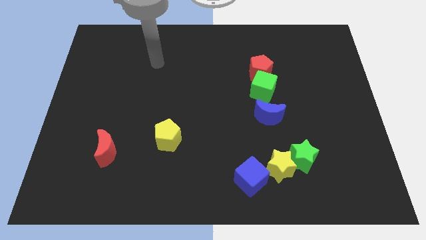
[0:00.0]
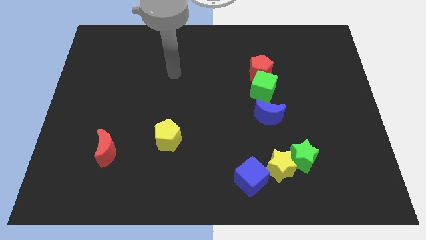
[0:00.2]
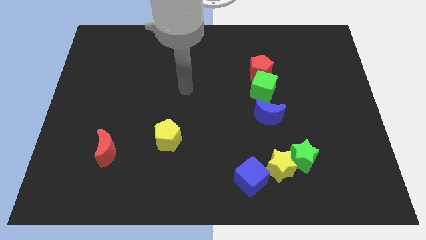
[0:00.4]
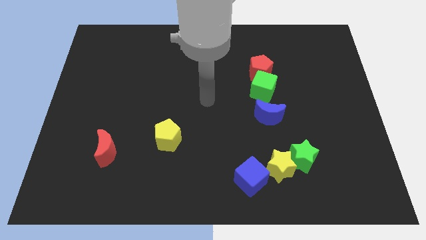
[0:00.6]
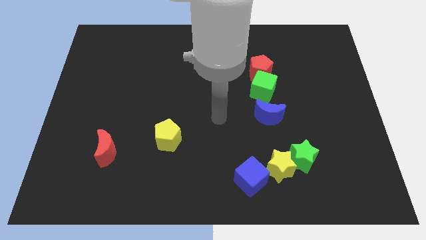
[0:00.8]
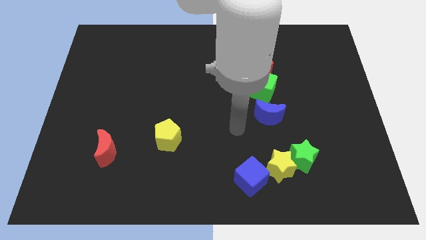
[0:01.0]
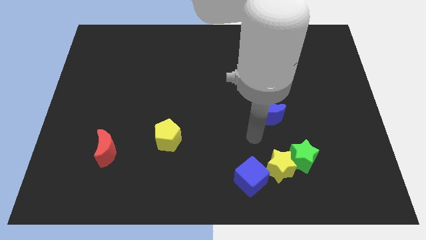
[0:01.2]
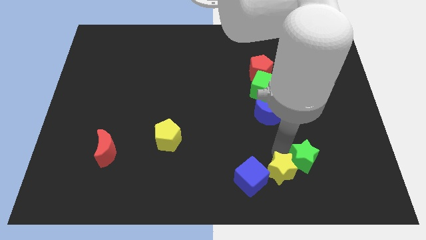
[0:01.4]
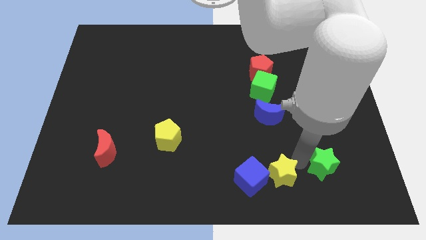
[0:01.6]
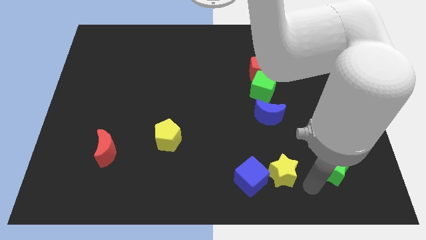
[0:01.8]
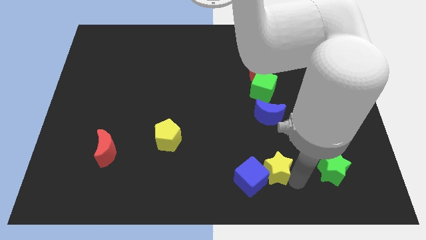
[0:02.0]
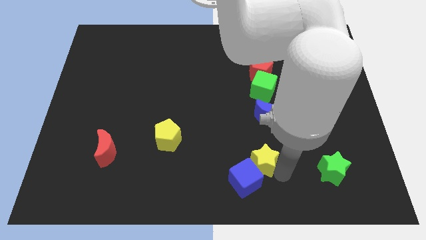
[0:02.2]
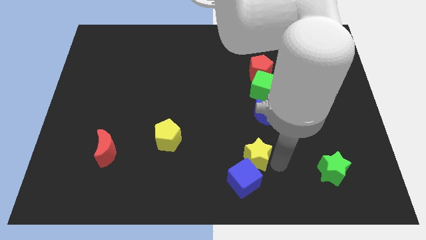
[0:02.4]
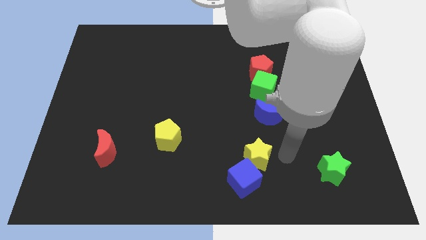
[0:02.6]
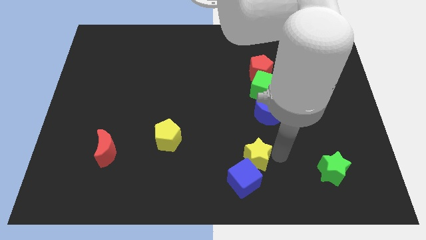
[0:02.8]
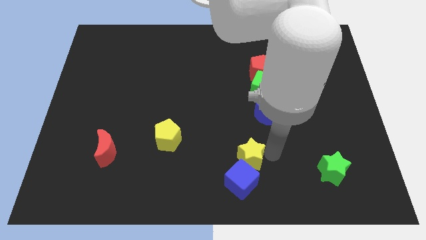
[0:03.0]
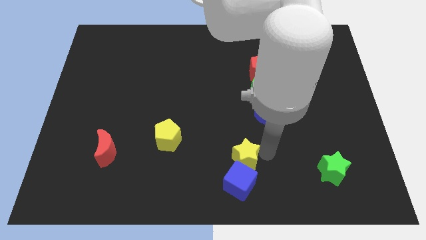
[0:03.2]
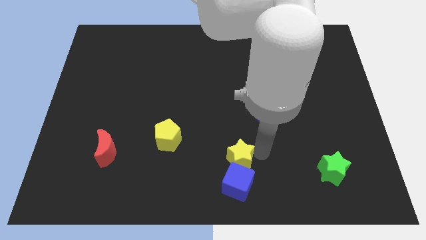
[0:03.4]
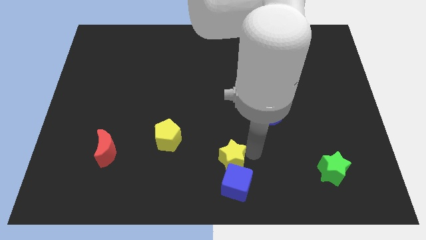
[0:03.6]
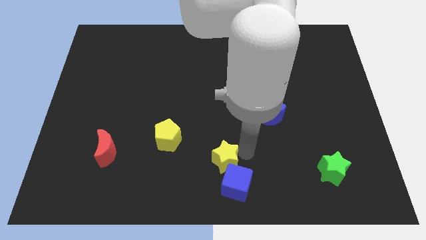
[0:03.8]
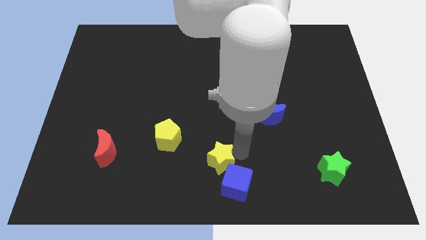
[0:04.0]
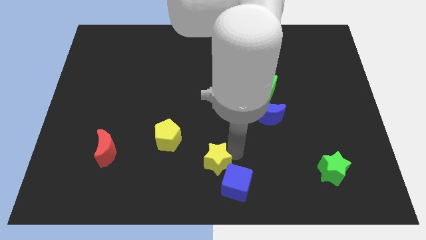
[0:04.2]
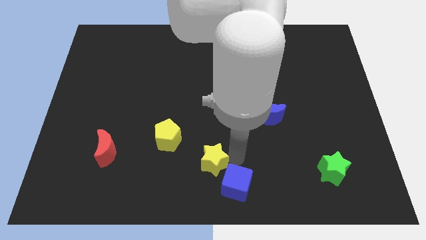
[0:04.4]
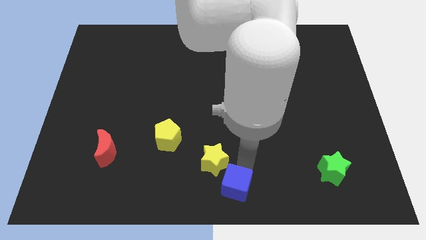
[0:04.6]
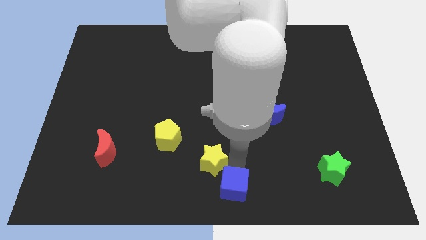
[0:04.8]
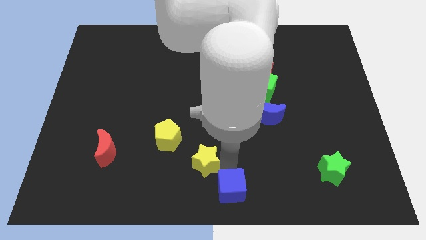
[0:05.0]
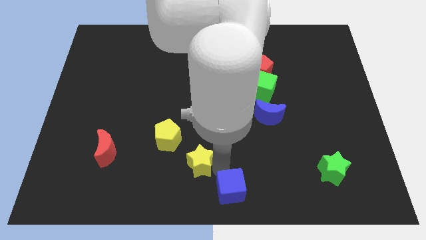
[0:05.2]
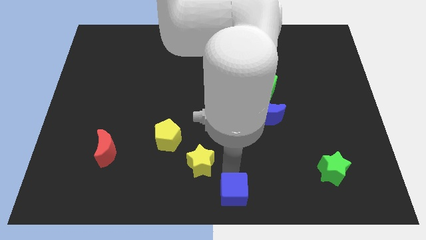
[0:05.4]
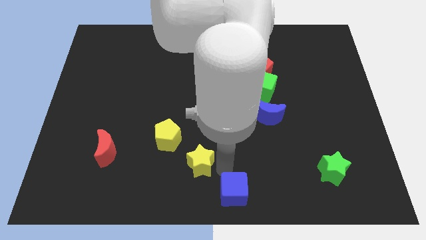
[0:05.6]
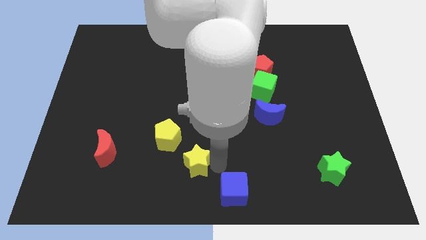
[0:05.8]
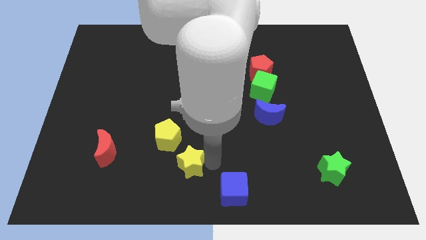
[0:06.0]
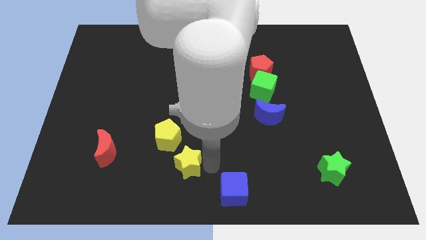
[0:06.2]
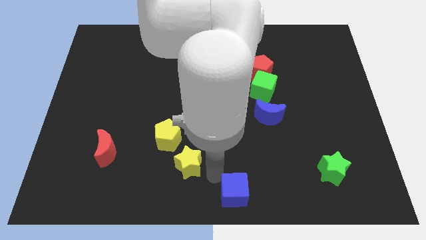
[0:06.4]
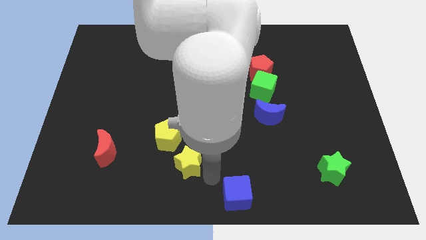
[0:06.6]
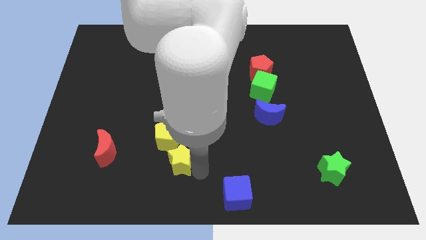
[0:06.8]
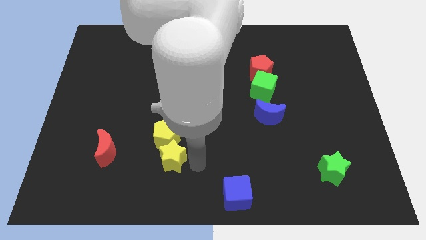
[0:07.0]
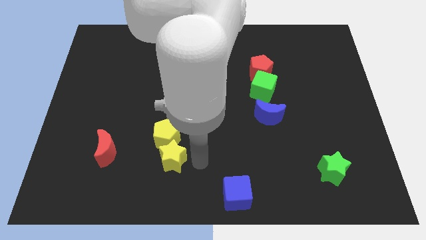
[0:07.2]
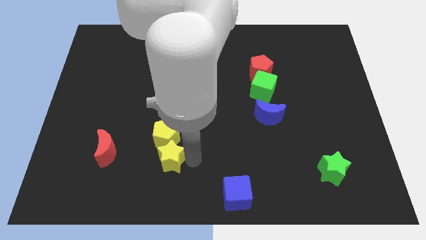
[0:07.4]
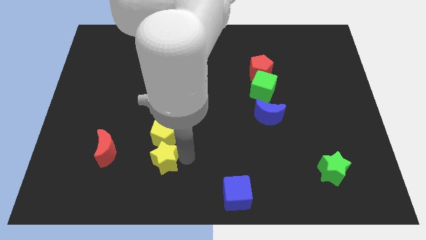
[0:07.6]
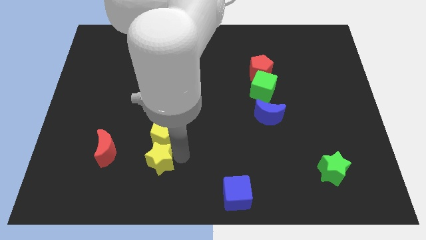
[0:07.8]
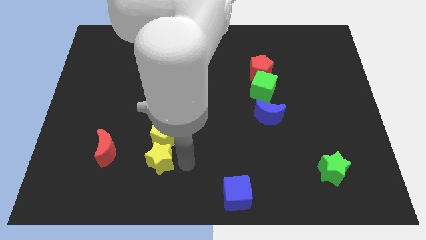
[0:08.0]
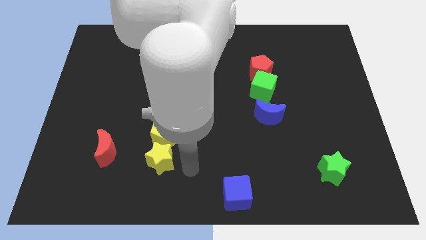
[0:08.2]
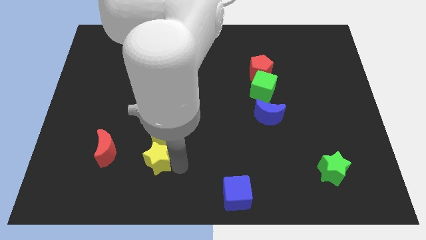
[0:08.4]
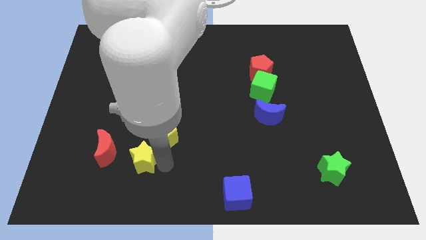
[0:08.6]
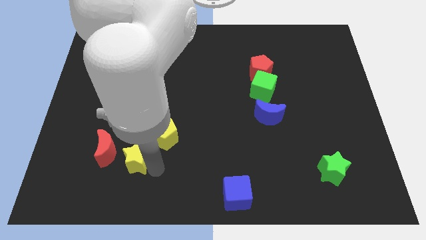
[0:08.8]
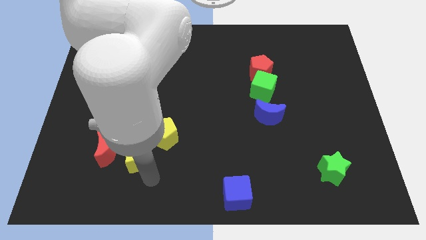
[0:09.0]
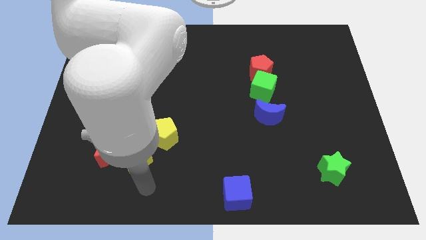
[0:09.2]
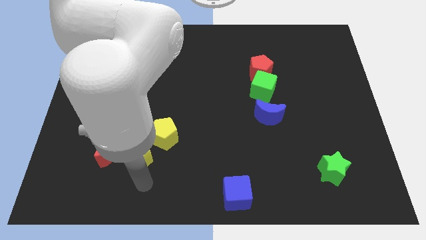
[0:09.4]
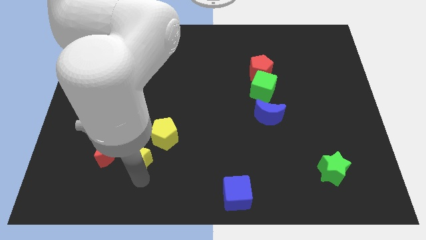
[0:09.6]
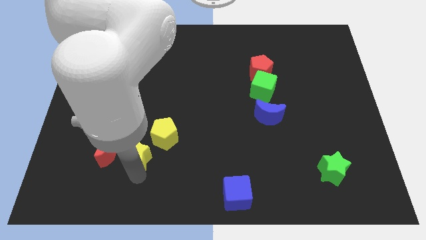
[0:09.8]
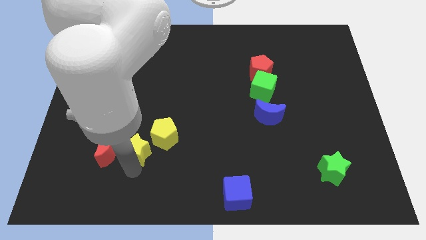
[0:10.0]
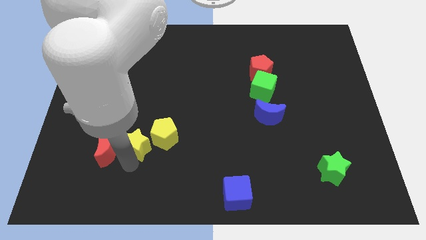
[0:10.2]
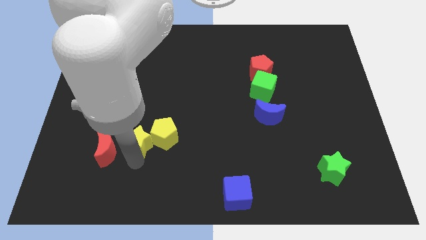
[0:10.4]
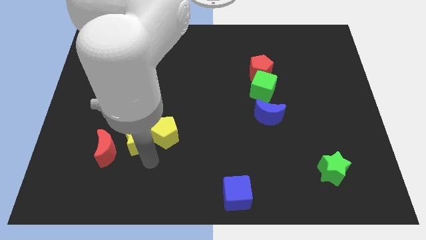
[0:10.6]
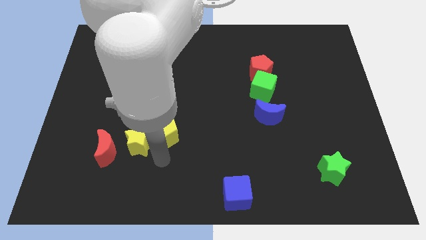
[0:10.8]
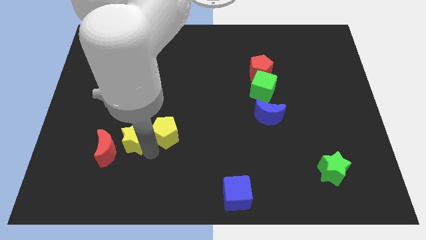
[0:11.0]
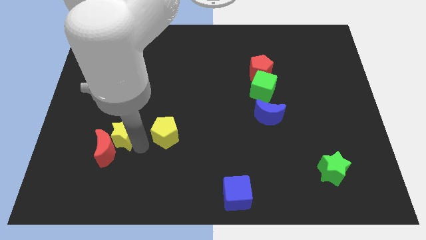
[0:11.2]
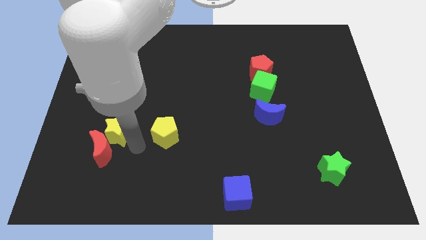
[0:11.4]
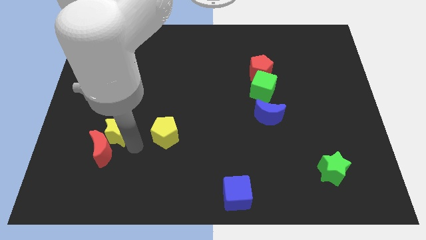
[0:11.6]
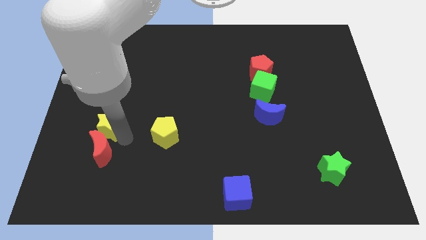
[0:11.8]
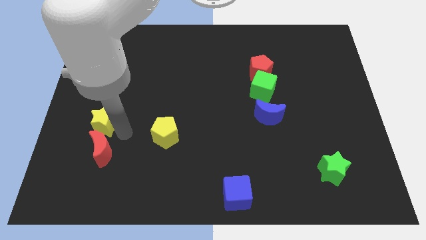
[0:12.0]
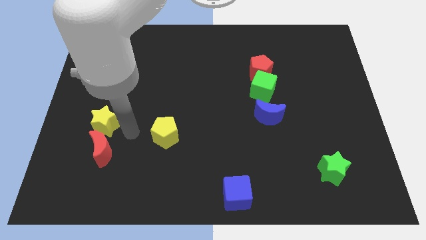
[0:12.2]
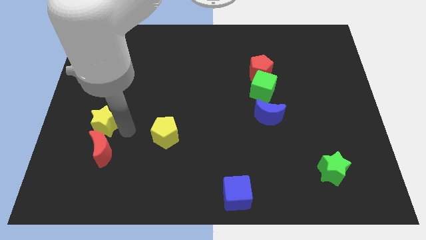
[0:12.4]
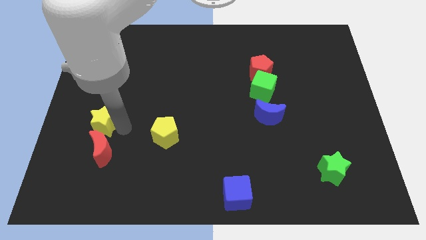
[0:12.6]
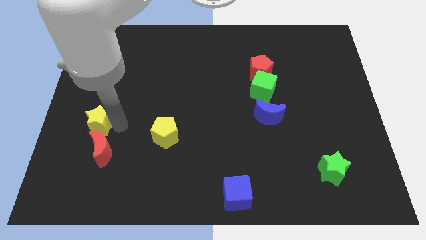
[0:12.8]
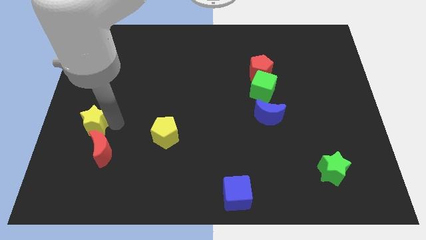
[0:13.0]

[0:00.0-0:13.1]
slide the yellow star to the center left
